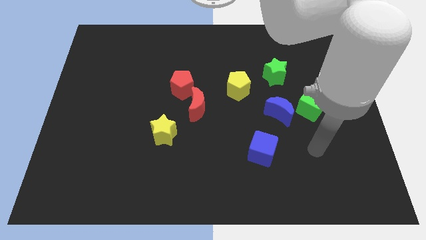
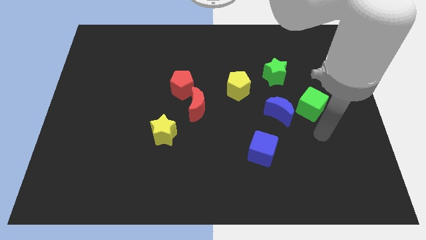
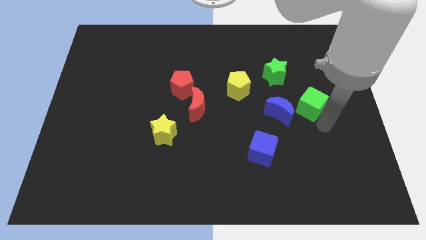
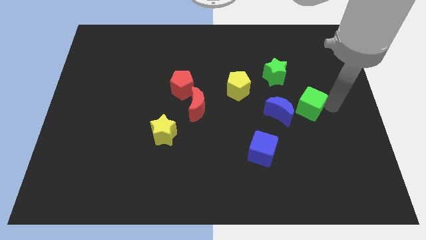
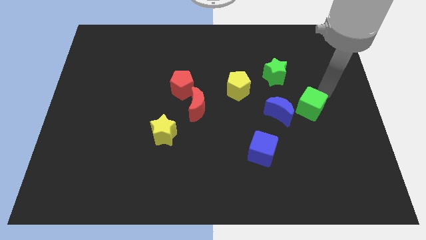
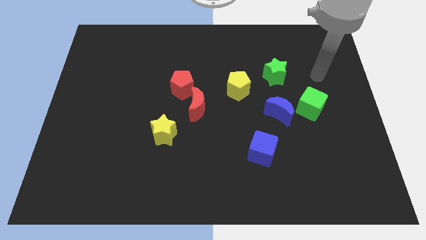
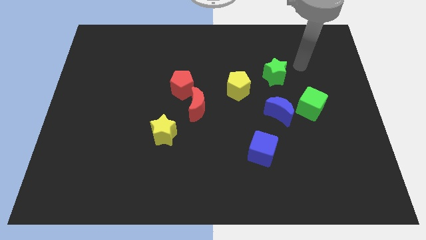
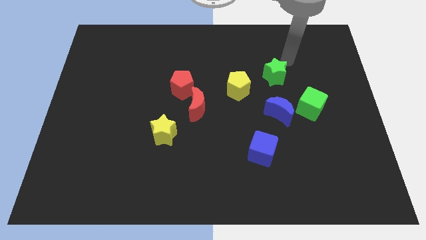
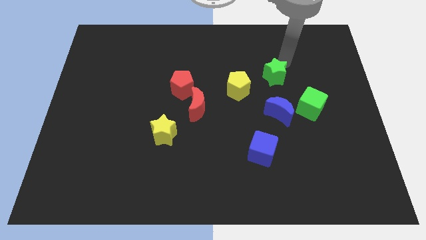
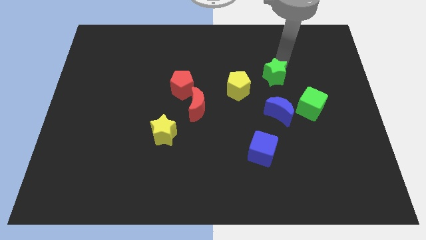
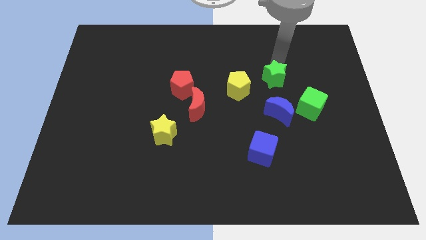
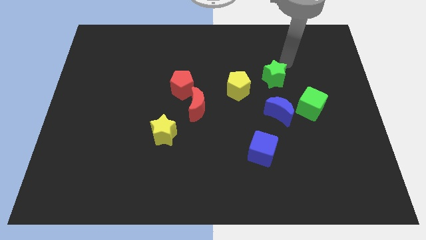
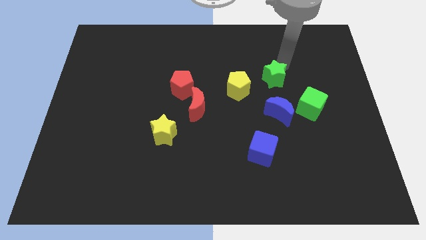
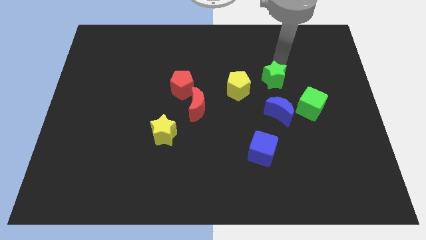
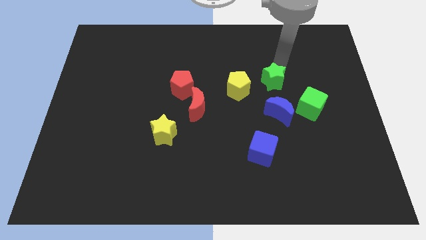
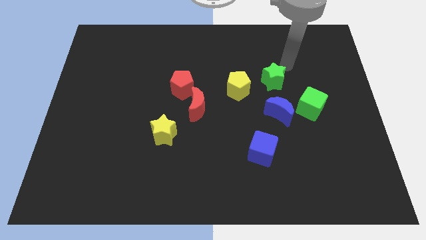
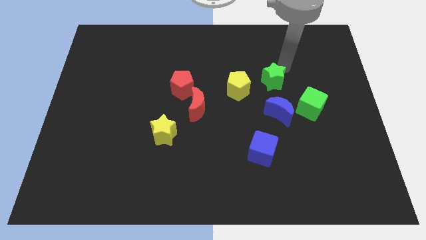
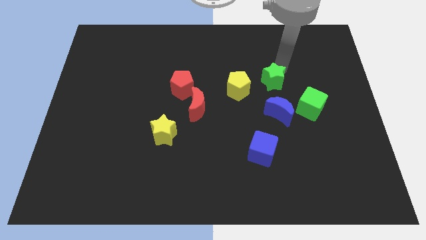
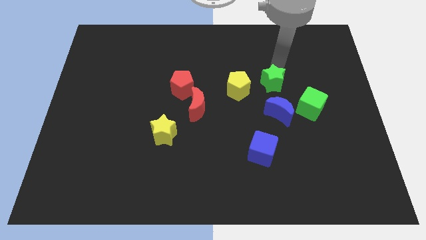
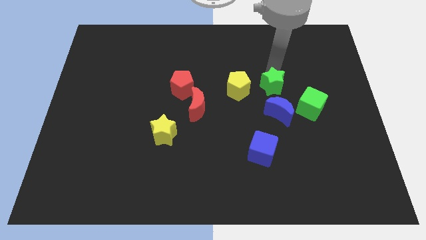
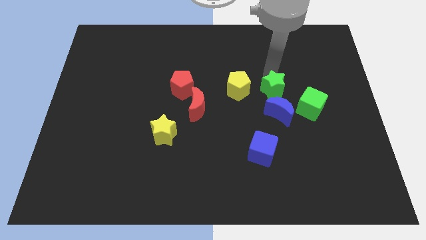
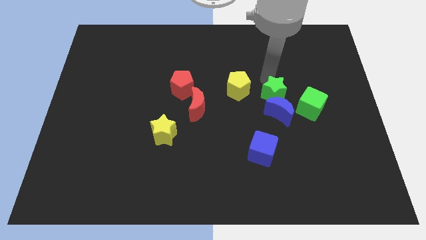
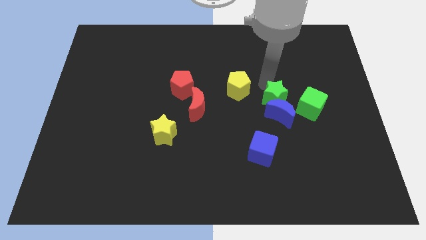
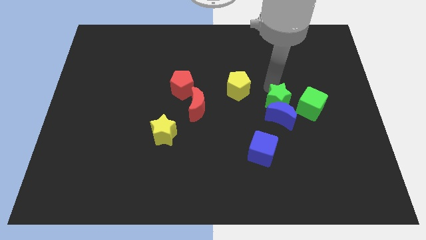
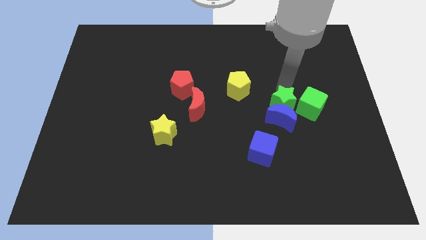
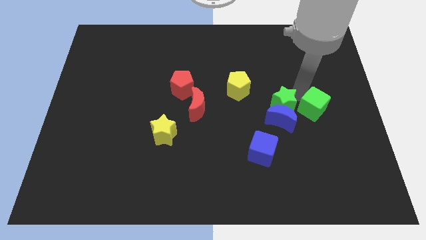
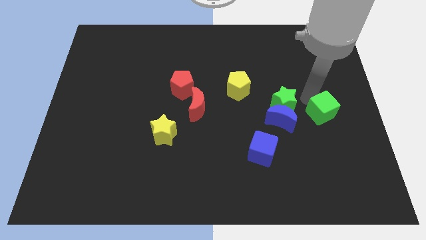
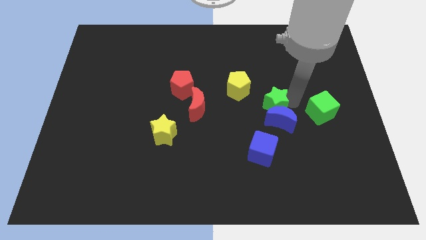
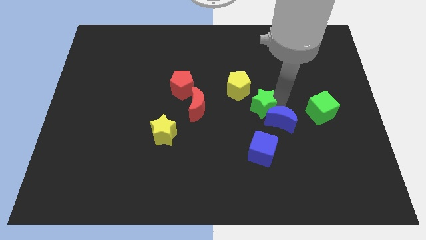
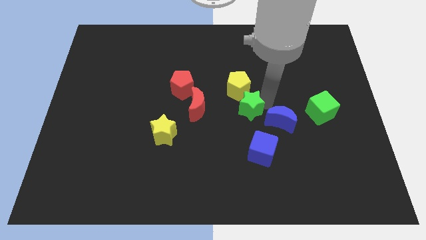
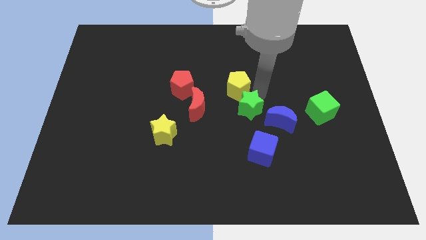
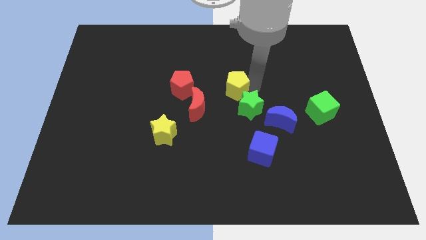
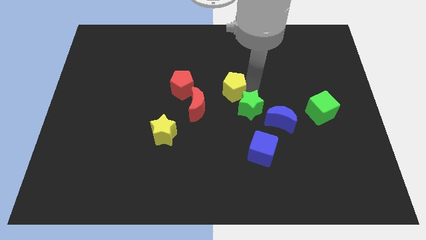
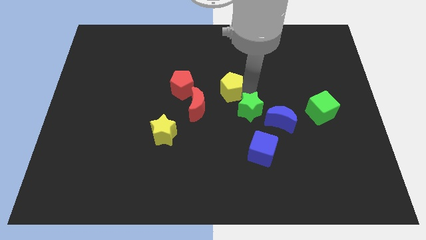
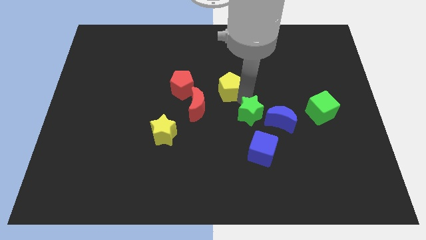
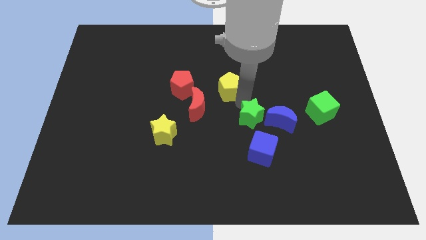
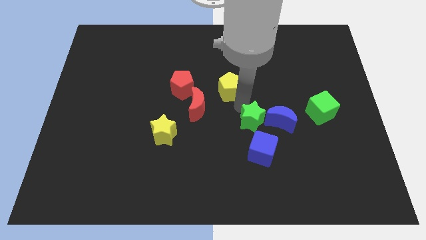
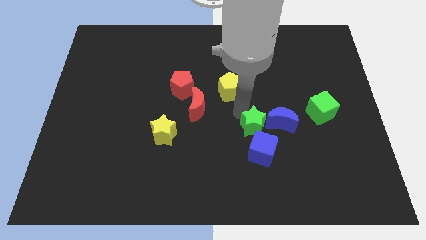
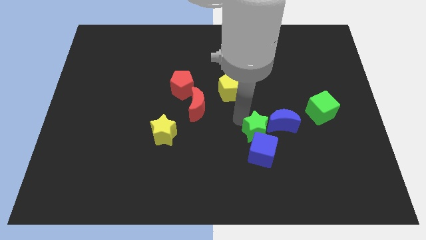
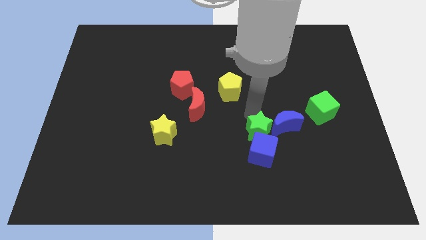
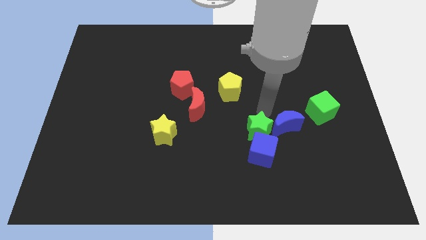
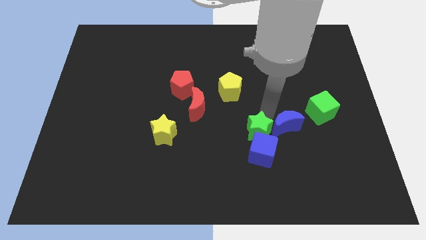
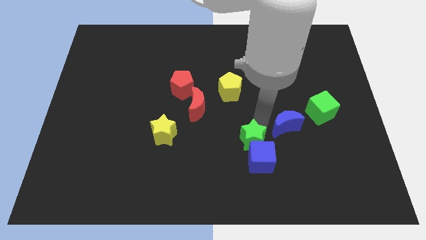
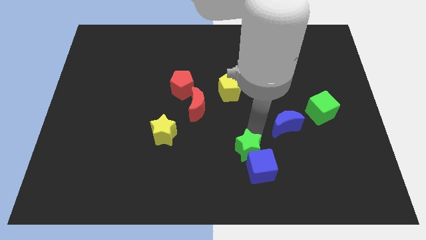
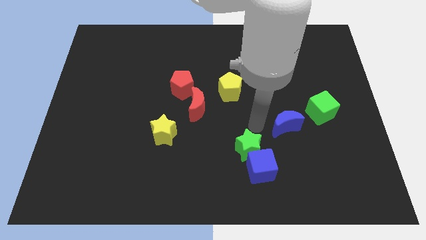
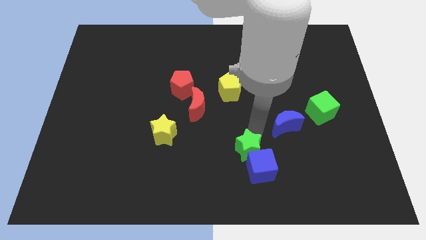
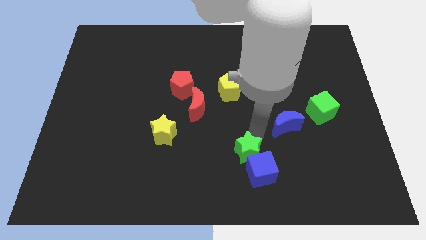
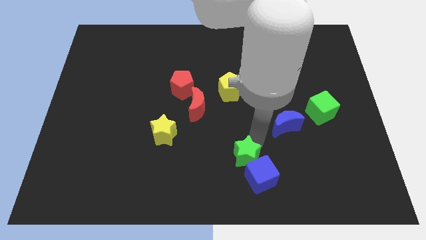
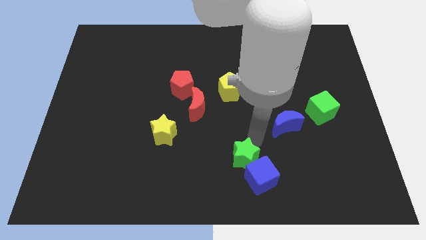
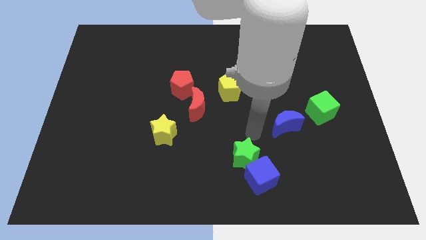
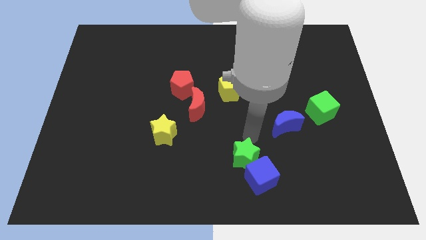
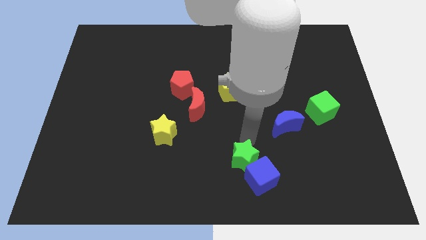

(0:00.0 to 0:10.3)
move the green star to the bottom

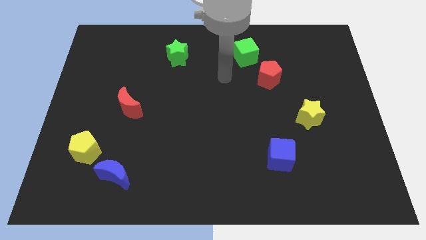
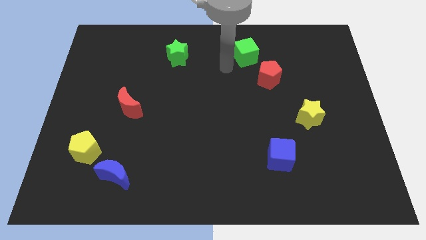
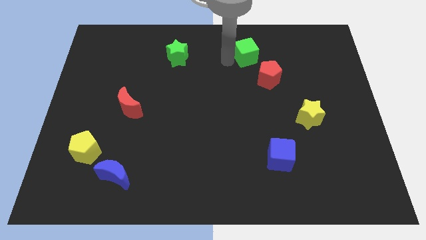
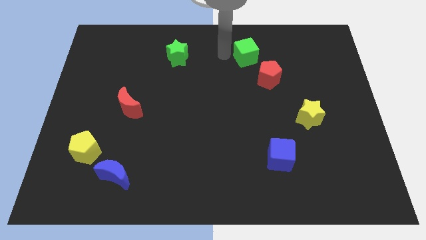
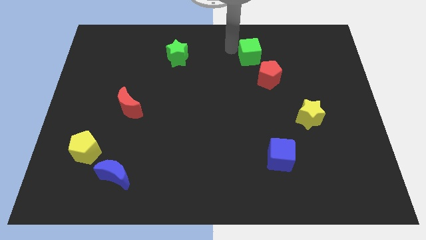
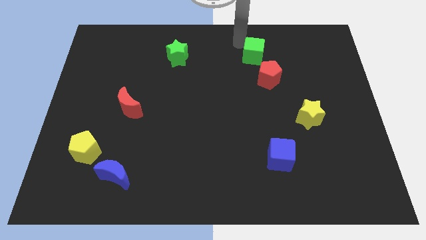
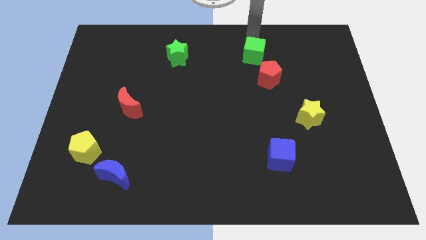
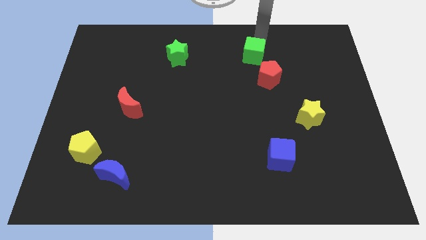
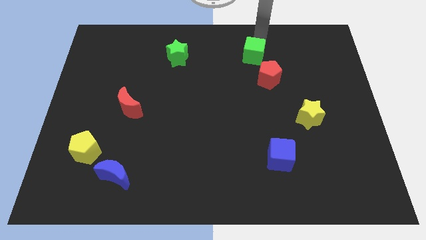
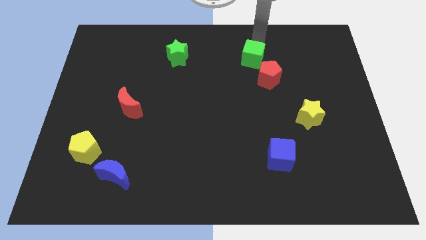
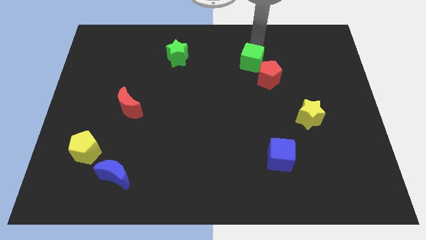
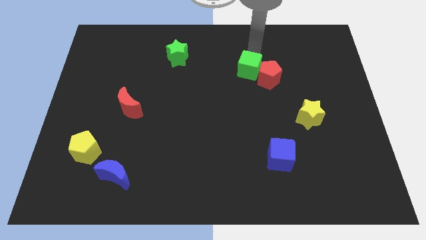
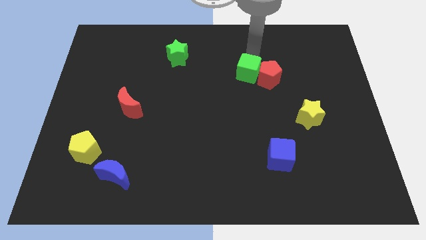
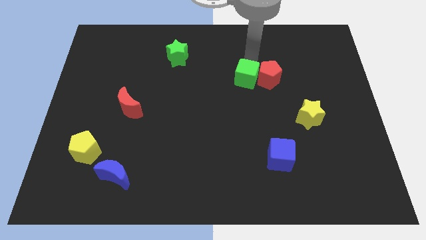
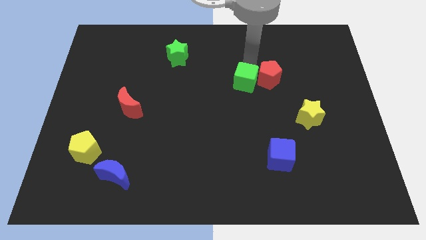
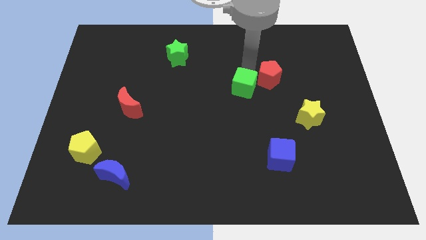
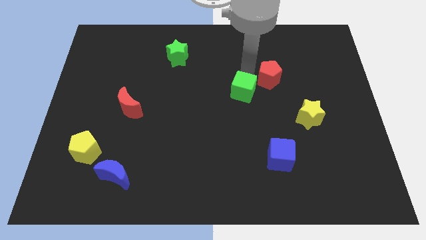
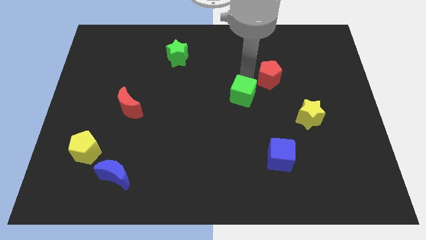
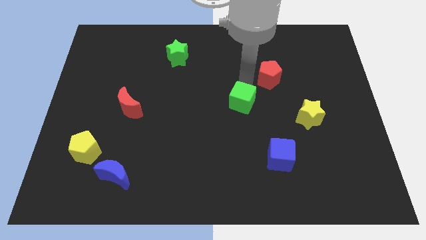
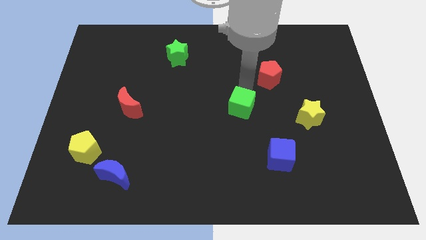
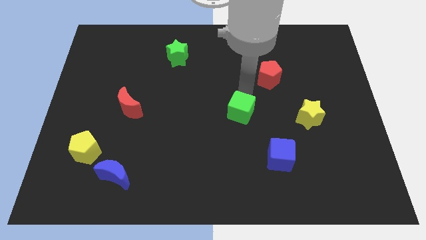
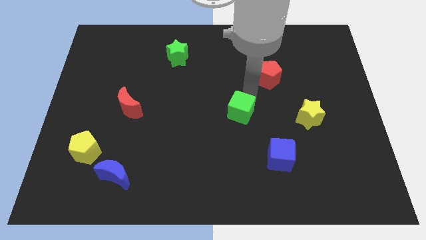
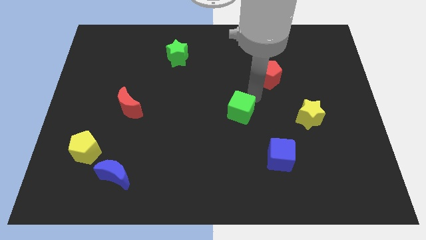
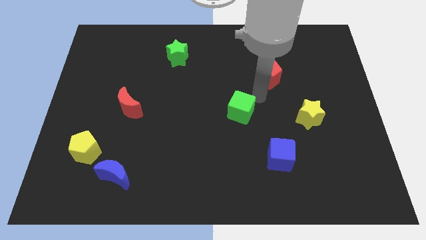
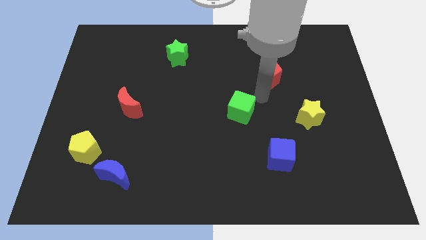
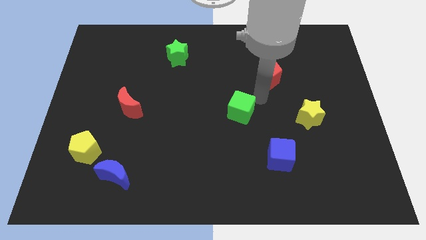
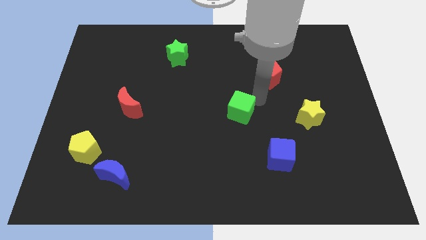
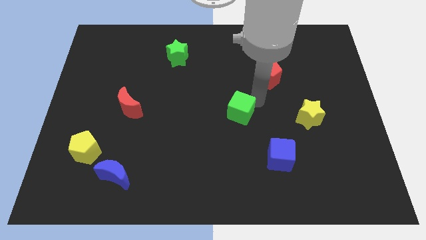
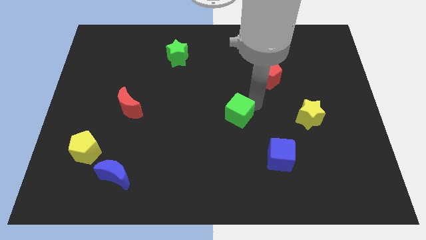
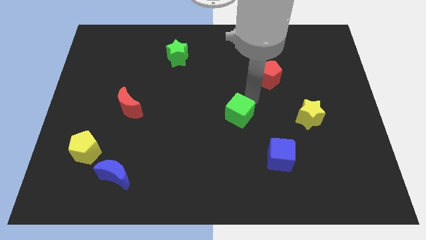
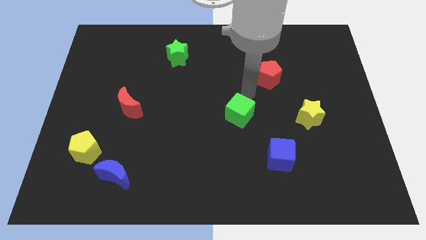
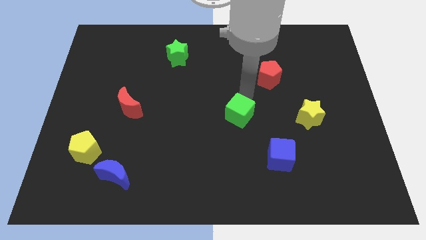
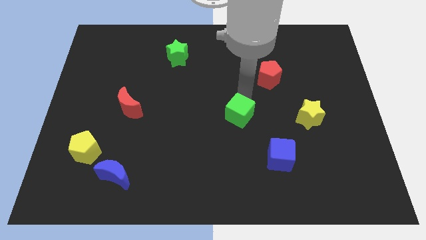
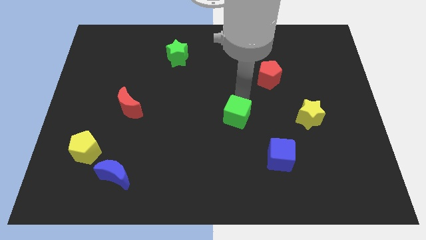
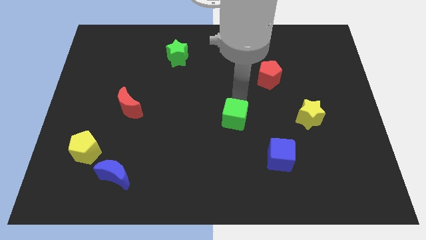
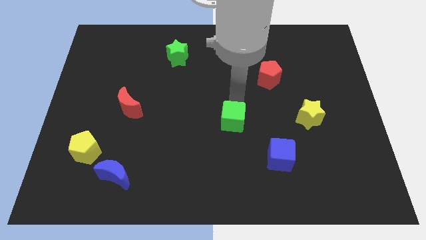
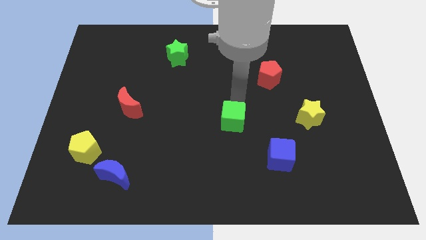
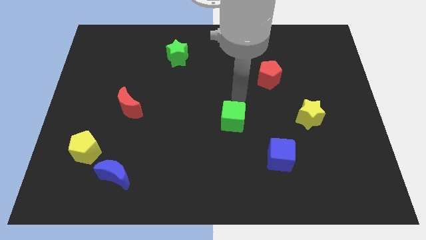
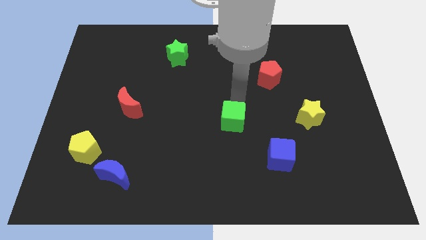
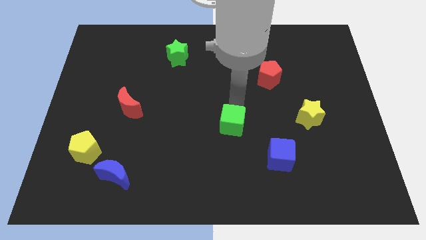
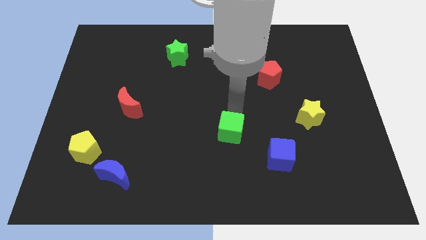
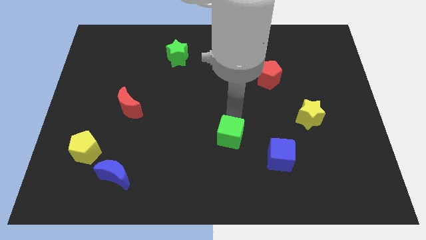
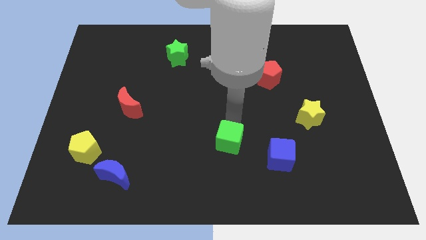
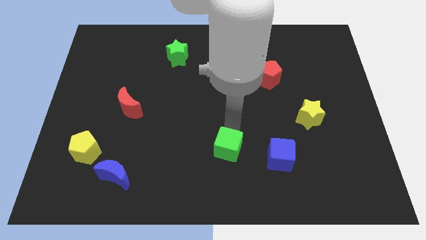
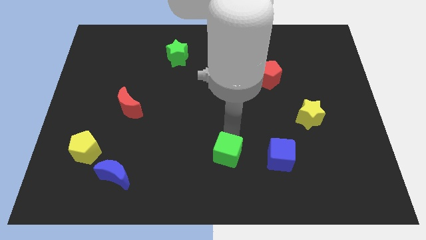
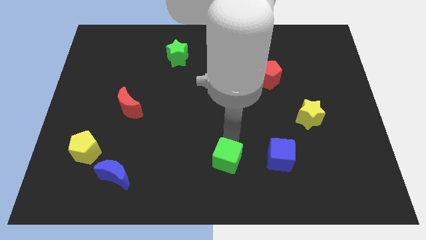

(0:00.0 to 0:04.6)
slide the green cube to the bottom side
